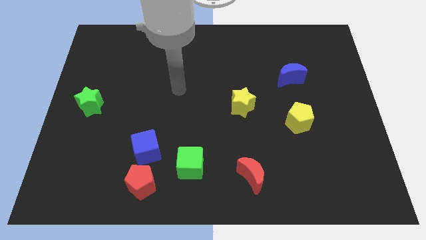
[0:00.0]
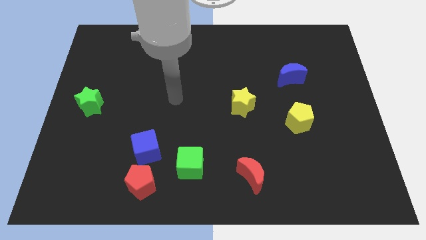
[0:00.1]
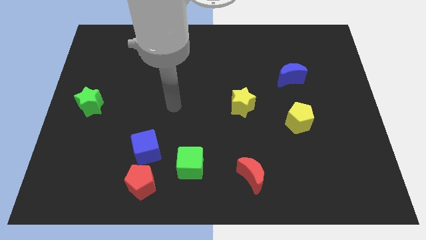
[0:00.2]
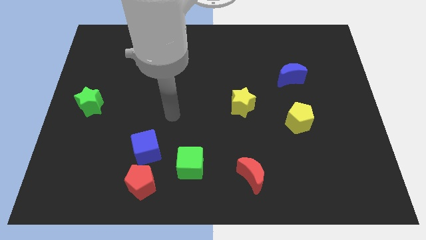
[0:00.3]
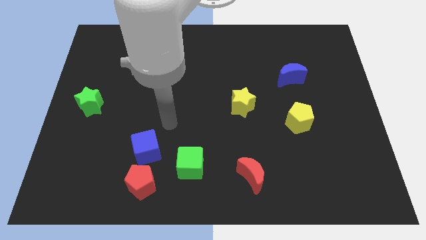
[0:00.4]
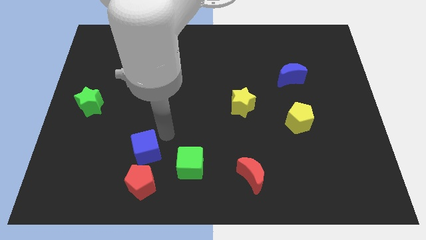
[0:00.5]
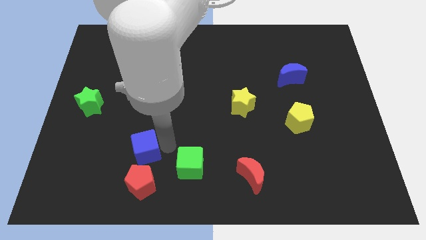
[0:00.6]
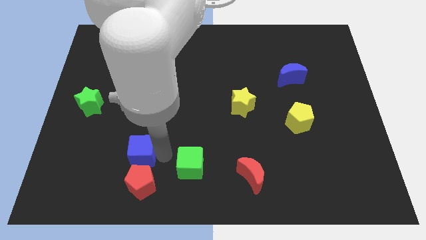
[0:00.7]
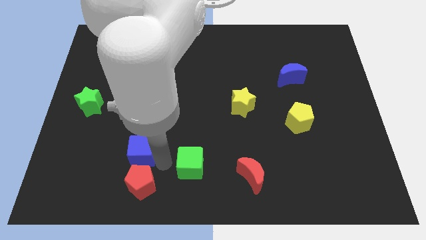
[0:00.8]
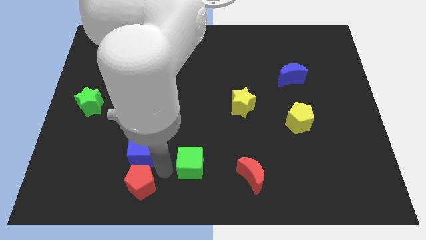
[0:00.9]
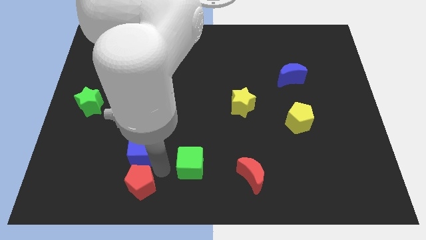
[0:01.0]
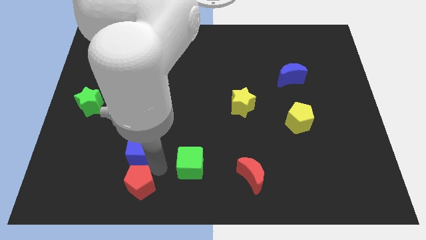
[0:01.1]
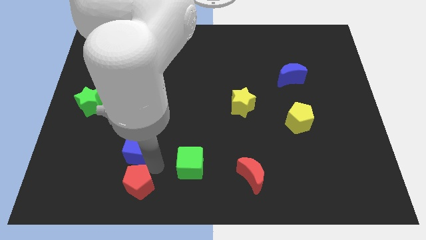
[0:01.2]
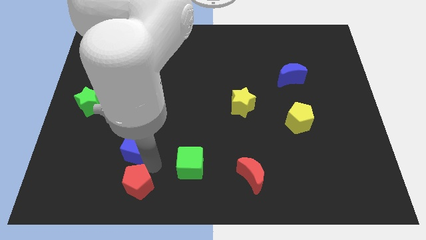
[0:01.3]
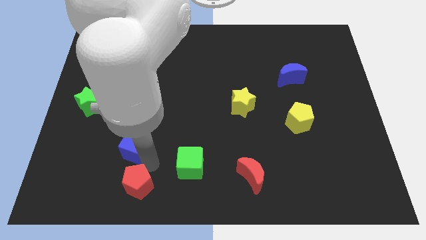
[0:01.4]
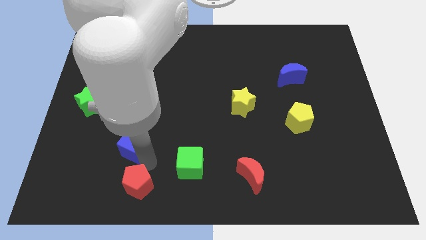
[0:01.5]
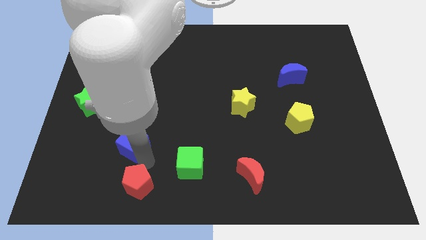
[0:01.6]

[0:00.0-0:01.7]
move the blue cube away from the red pentagon and green cube

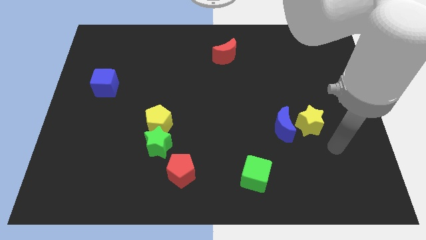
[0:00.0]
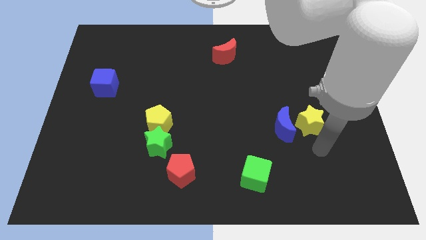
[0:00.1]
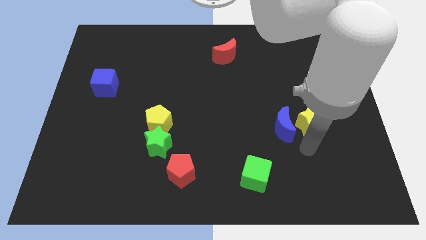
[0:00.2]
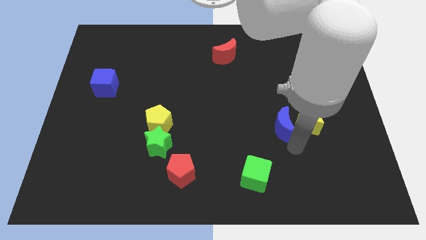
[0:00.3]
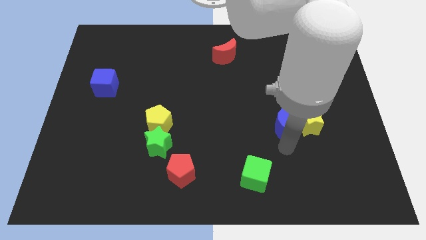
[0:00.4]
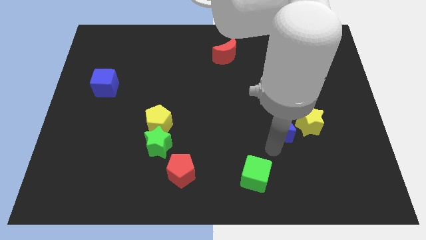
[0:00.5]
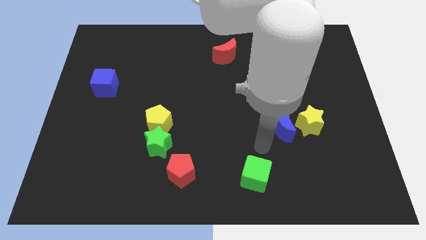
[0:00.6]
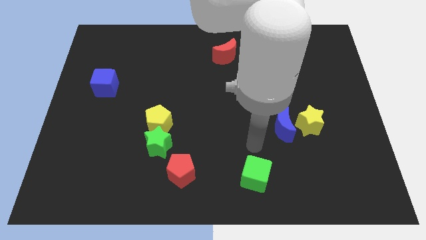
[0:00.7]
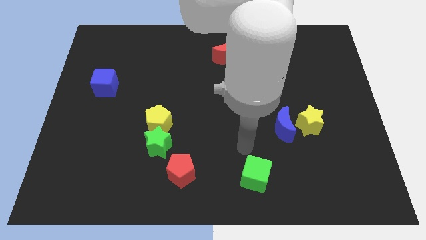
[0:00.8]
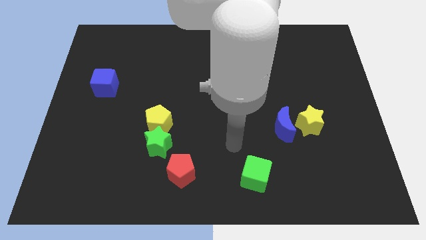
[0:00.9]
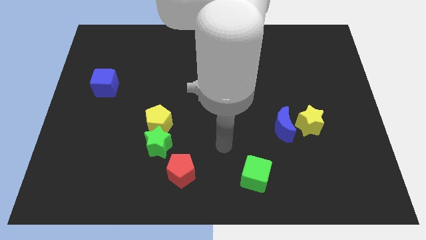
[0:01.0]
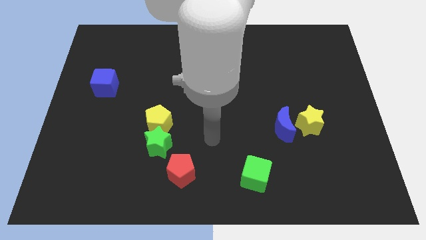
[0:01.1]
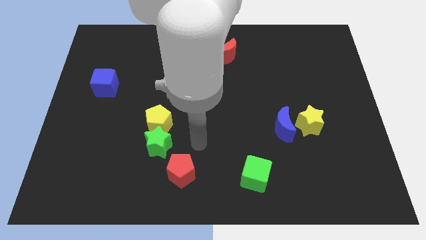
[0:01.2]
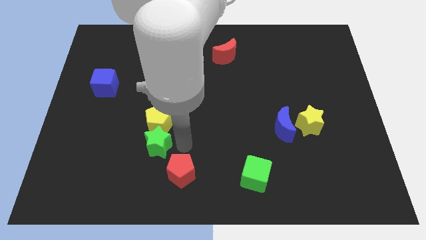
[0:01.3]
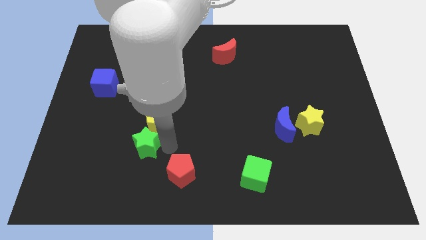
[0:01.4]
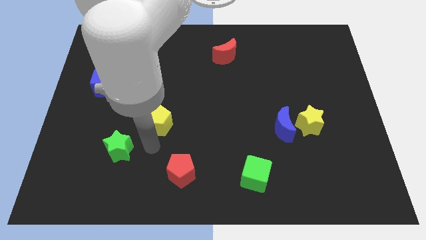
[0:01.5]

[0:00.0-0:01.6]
move the yellow pentagon away from the green star

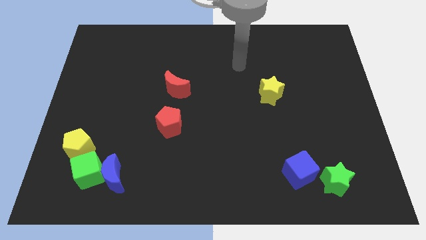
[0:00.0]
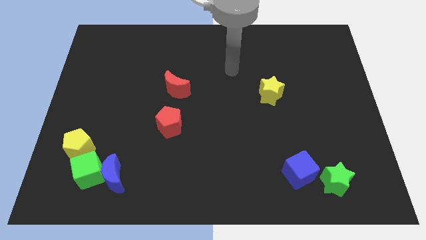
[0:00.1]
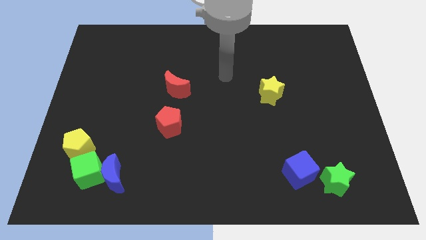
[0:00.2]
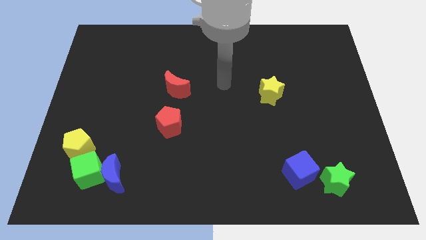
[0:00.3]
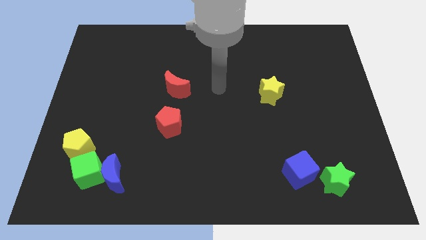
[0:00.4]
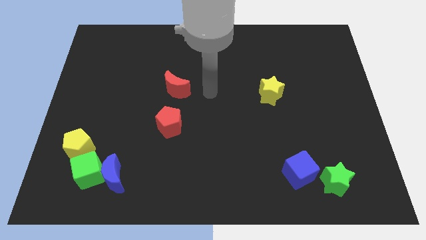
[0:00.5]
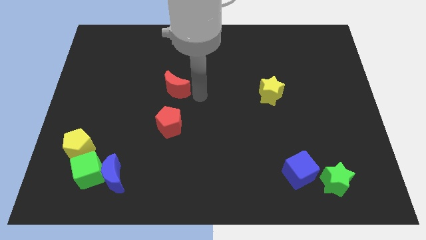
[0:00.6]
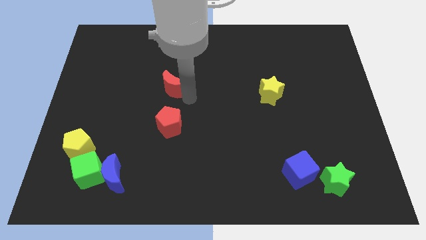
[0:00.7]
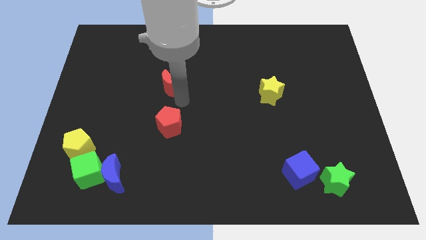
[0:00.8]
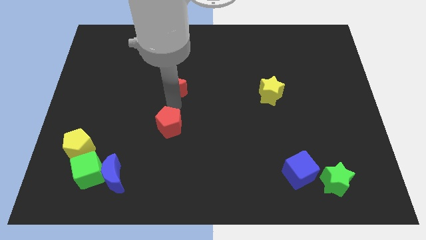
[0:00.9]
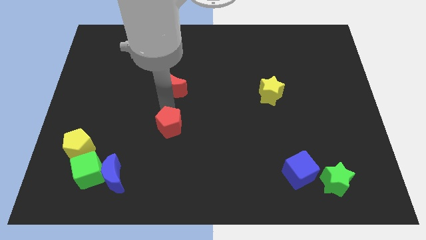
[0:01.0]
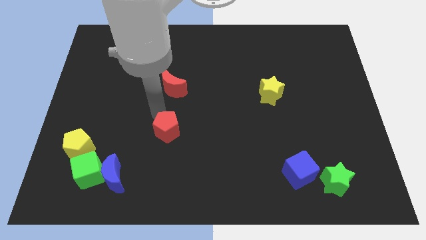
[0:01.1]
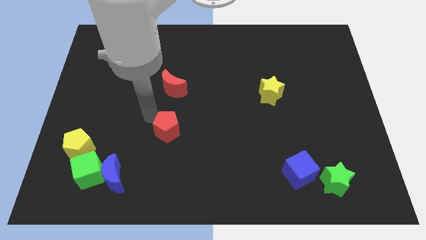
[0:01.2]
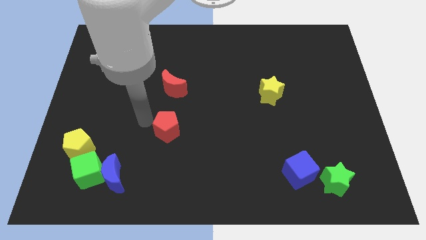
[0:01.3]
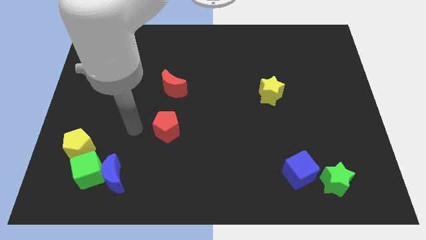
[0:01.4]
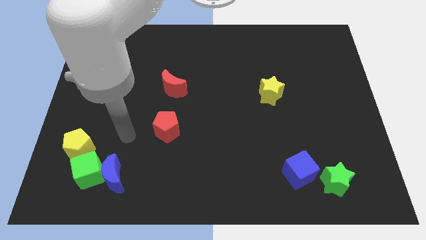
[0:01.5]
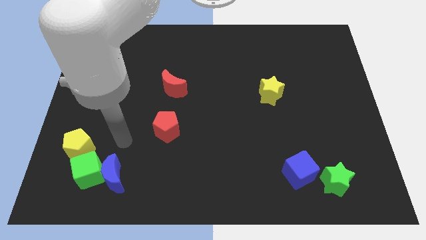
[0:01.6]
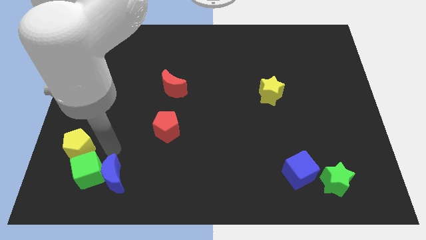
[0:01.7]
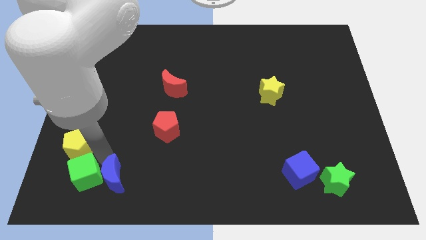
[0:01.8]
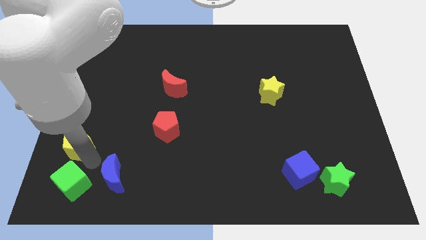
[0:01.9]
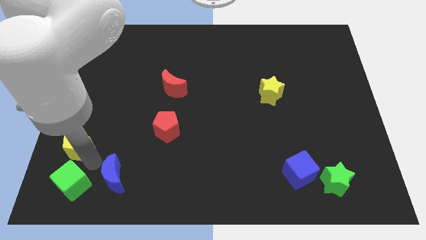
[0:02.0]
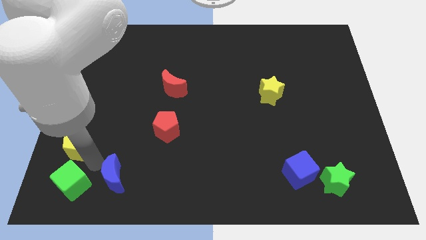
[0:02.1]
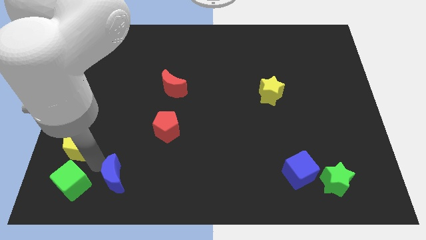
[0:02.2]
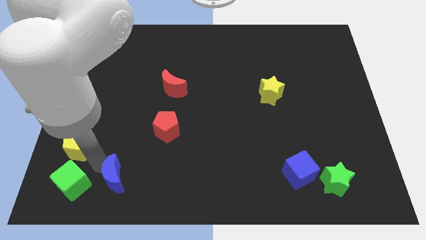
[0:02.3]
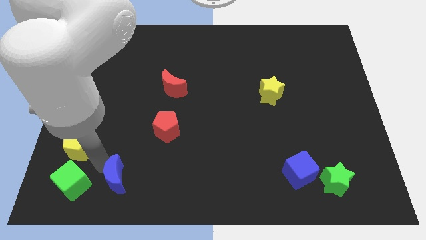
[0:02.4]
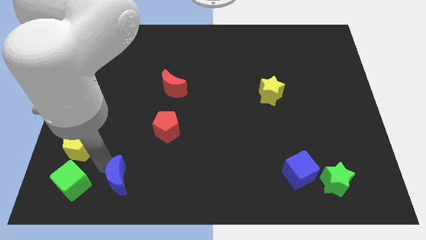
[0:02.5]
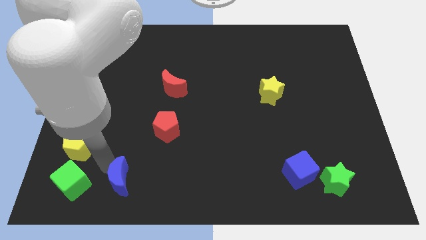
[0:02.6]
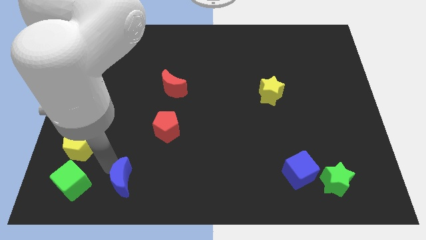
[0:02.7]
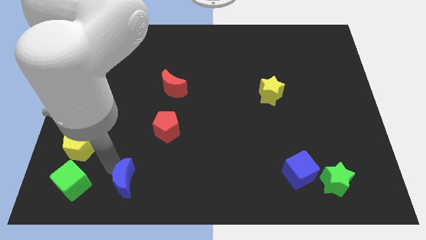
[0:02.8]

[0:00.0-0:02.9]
separate the blue moon from the green cube

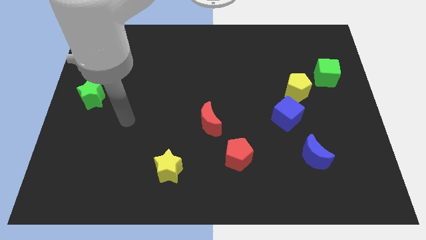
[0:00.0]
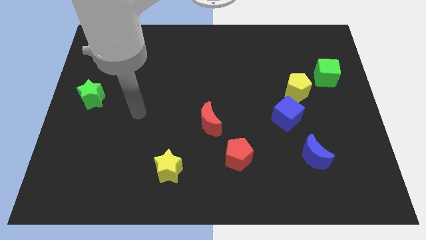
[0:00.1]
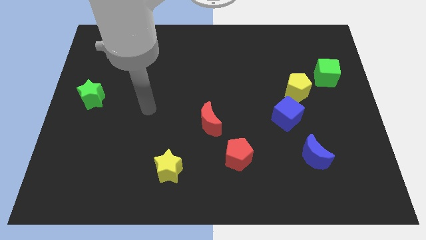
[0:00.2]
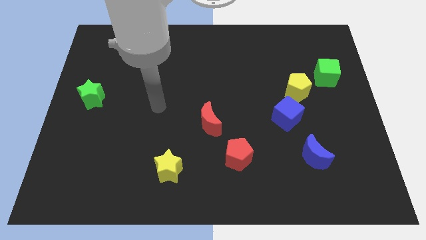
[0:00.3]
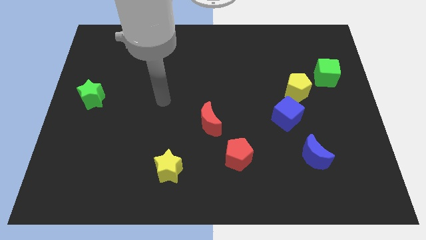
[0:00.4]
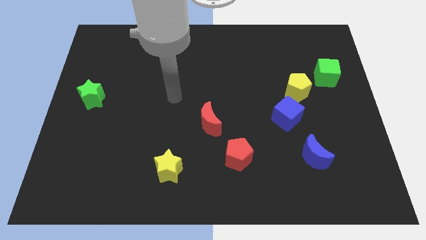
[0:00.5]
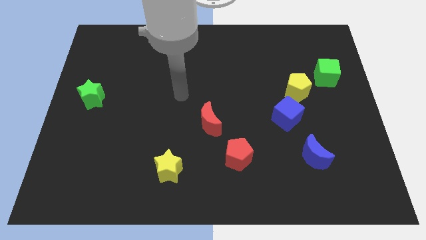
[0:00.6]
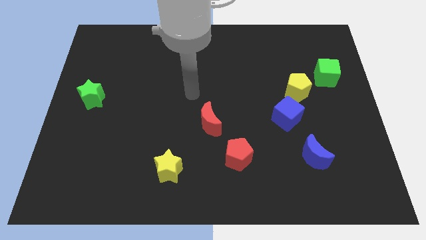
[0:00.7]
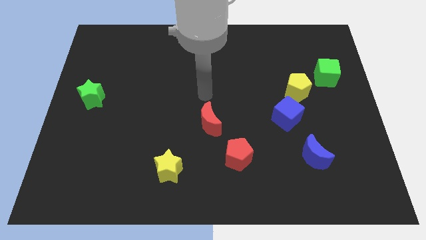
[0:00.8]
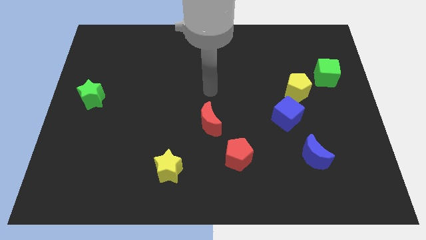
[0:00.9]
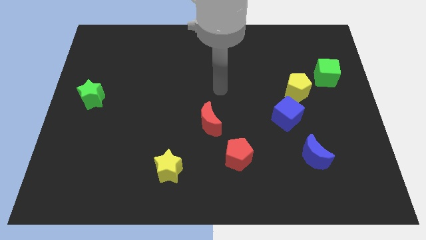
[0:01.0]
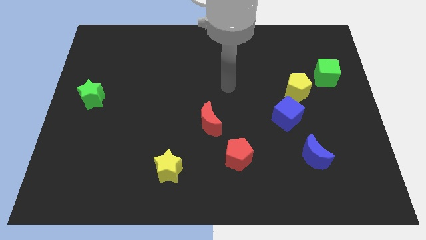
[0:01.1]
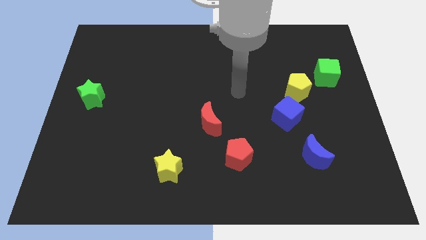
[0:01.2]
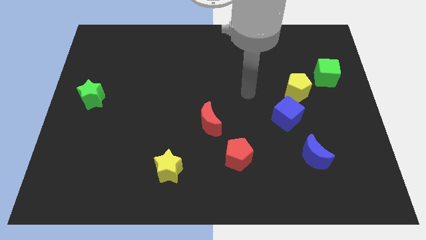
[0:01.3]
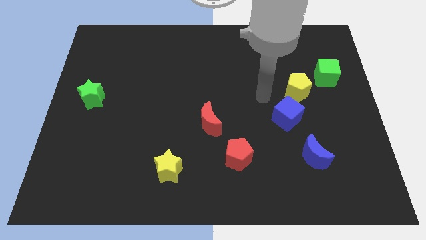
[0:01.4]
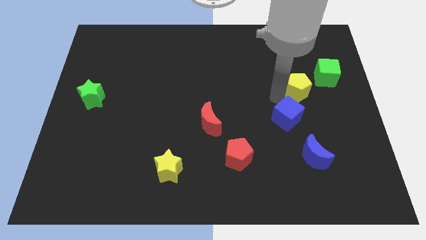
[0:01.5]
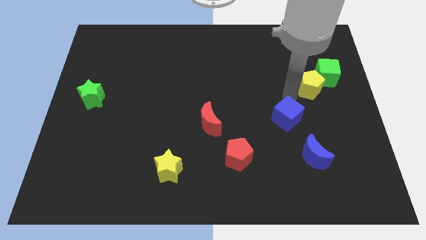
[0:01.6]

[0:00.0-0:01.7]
move the blue cube away from the yellow pentagon

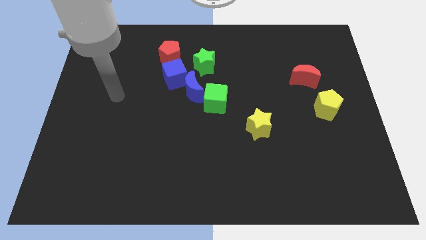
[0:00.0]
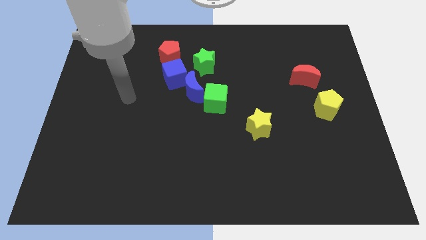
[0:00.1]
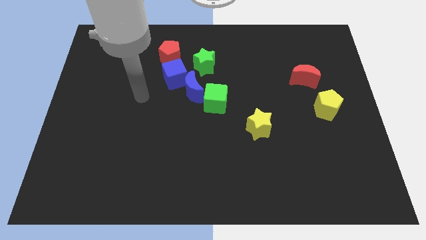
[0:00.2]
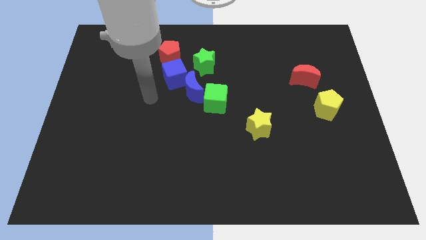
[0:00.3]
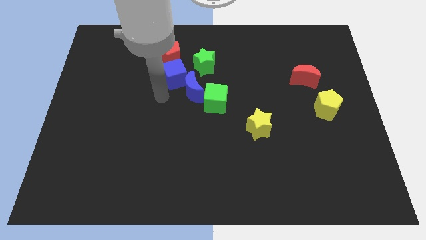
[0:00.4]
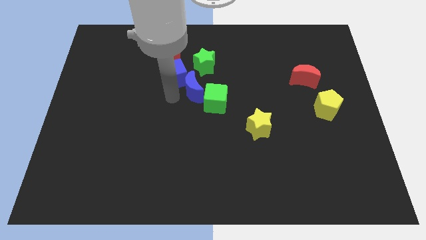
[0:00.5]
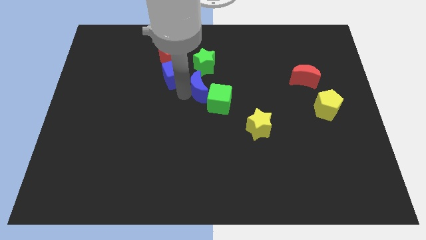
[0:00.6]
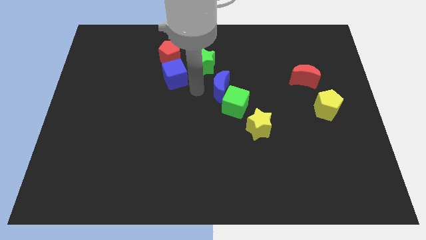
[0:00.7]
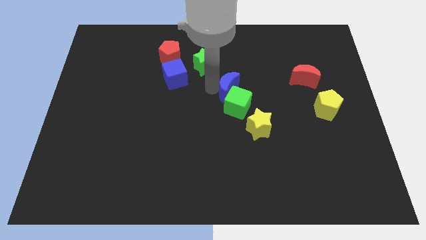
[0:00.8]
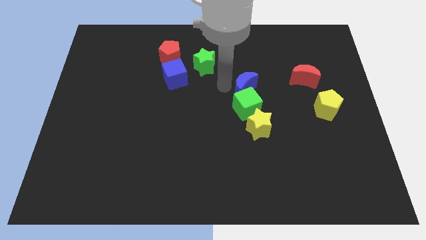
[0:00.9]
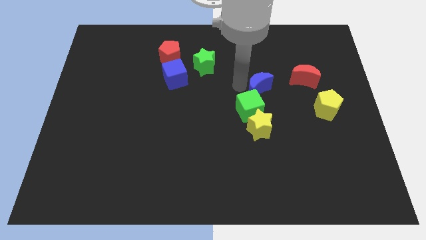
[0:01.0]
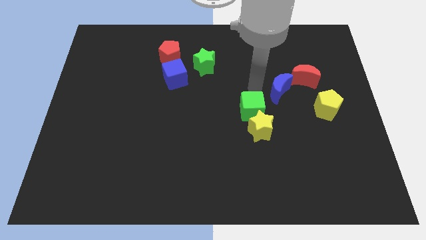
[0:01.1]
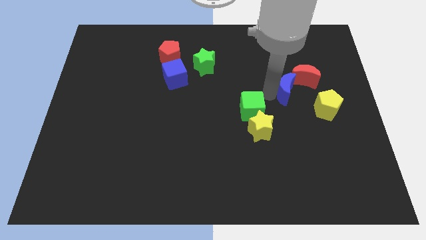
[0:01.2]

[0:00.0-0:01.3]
separate the green cube from the blue moon
